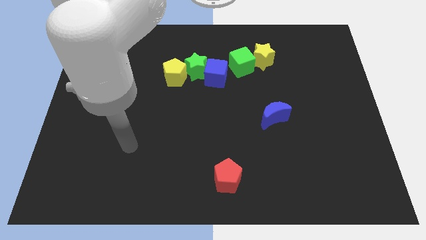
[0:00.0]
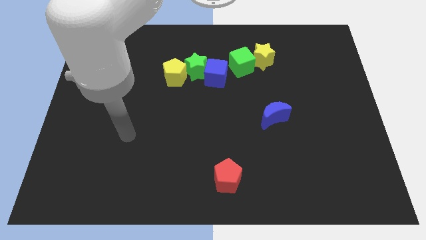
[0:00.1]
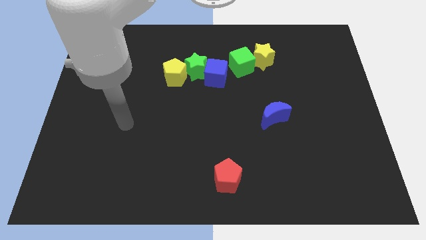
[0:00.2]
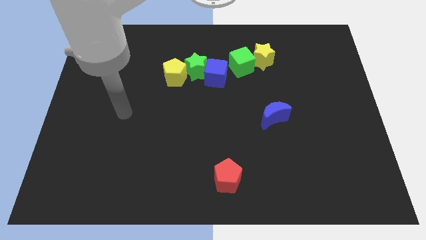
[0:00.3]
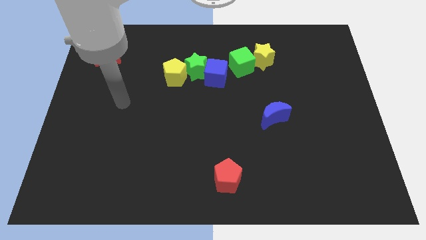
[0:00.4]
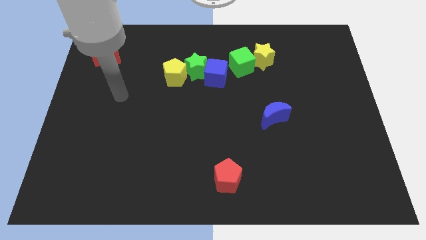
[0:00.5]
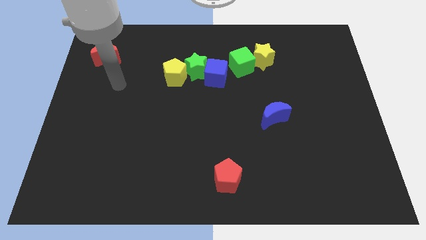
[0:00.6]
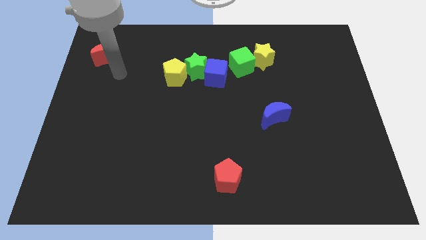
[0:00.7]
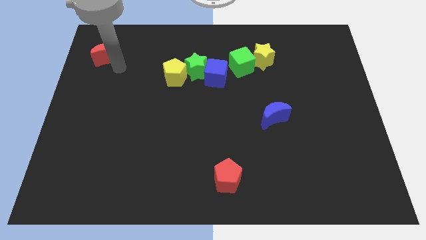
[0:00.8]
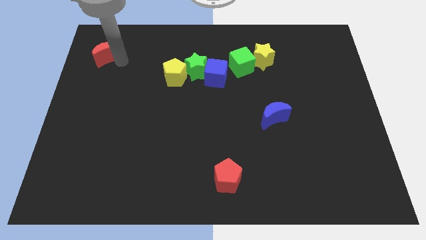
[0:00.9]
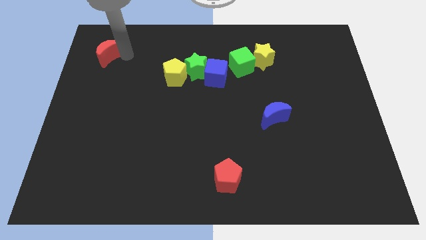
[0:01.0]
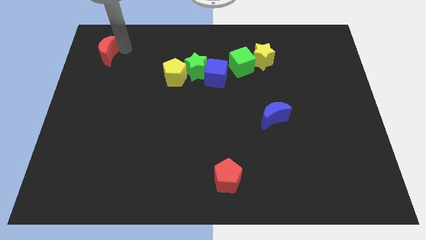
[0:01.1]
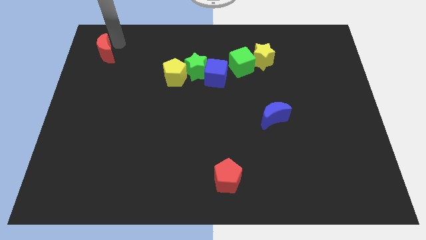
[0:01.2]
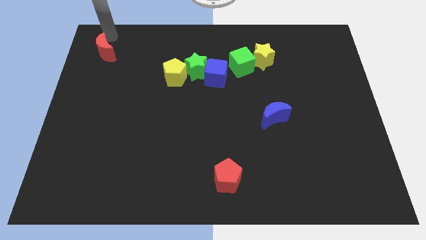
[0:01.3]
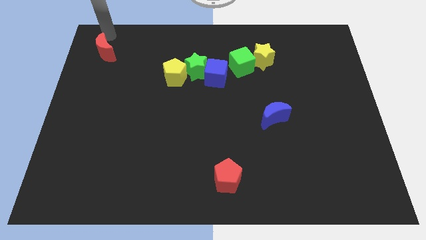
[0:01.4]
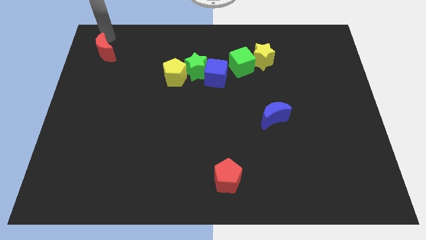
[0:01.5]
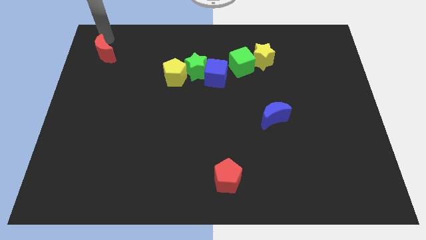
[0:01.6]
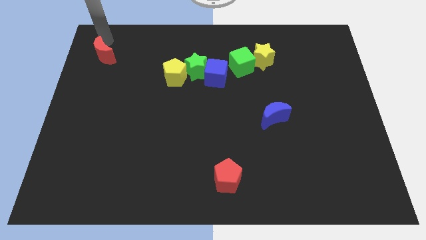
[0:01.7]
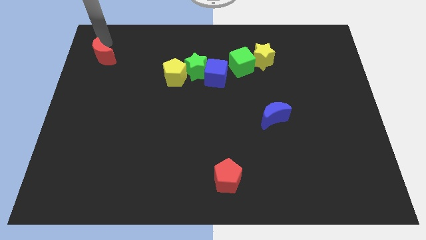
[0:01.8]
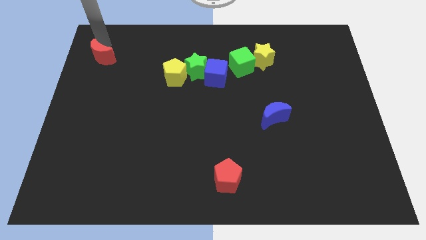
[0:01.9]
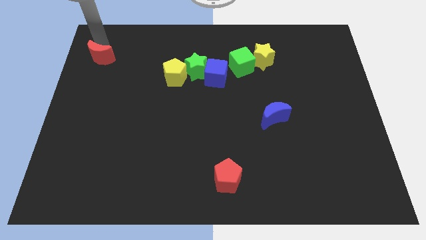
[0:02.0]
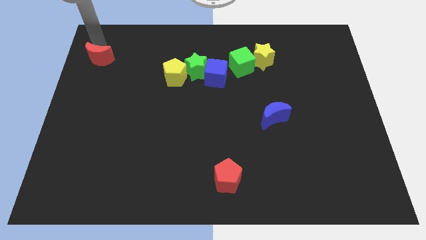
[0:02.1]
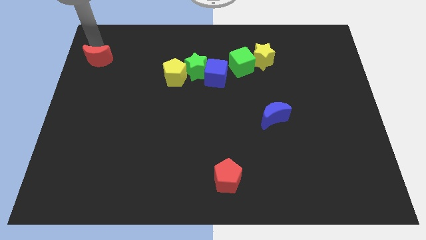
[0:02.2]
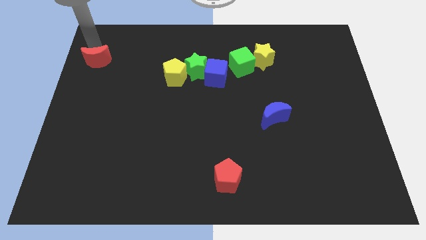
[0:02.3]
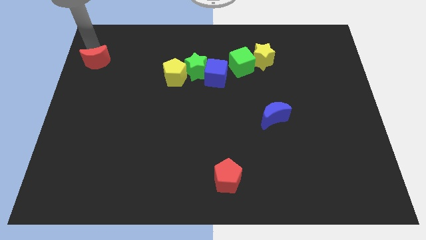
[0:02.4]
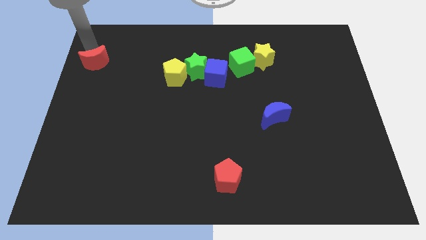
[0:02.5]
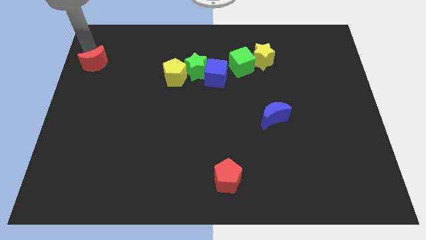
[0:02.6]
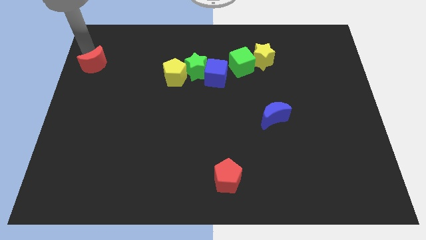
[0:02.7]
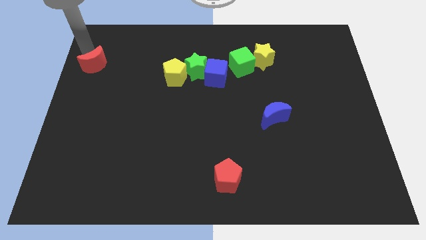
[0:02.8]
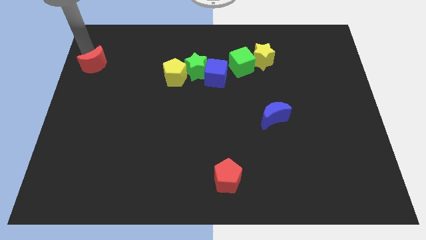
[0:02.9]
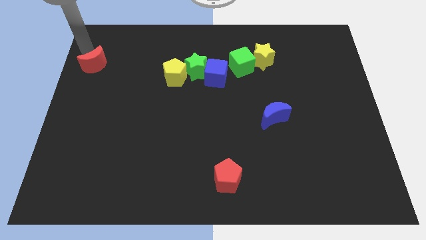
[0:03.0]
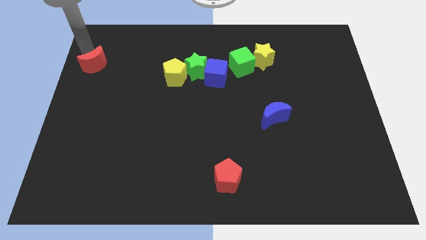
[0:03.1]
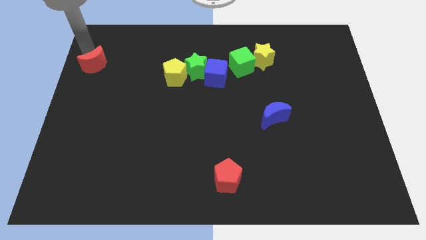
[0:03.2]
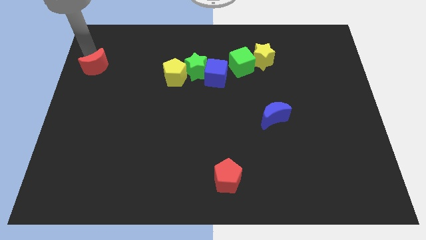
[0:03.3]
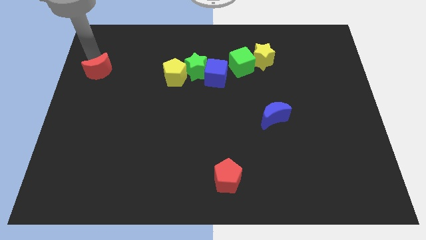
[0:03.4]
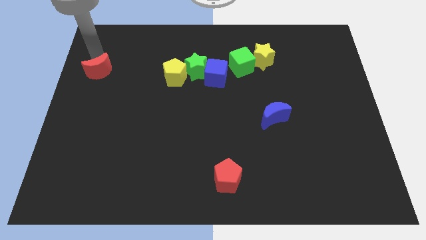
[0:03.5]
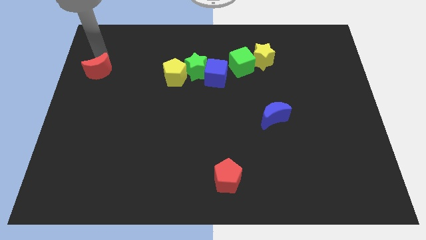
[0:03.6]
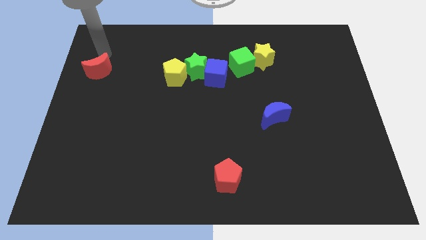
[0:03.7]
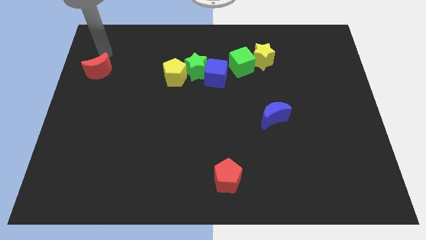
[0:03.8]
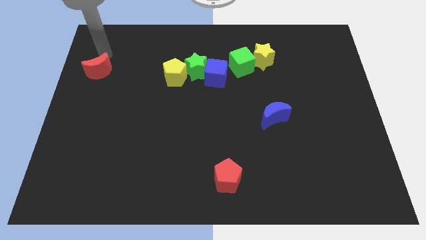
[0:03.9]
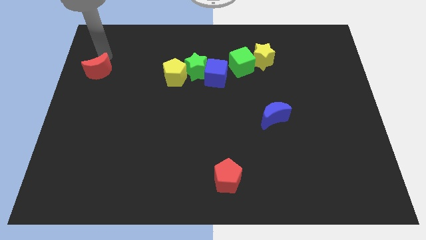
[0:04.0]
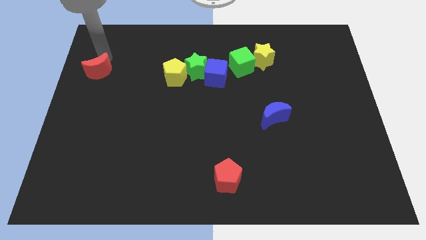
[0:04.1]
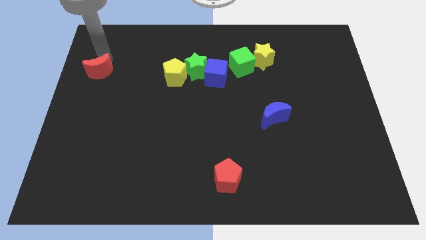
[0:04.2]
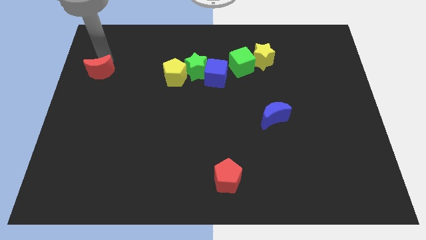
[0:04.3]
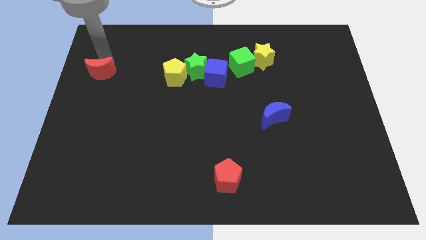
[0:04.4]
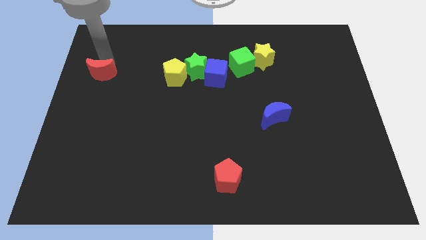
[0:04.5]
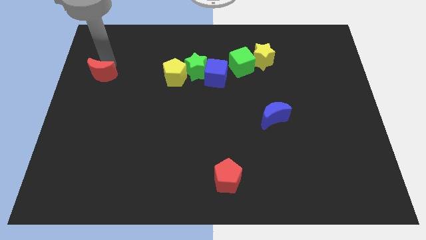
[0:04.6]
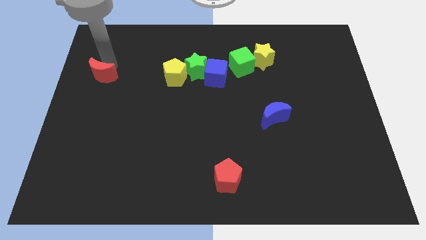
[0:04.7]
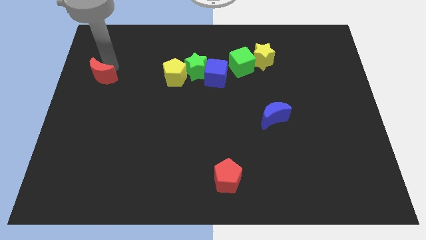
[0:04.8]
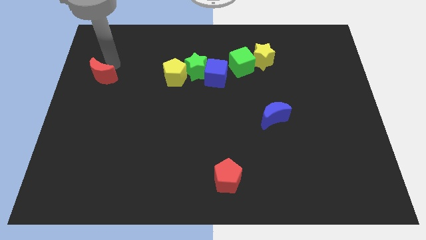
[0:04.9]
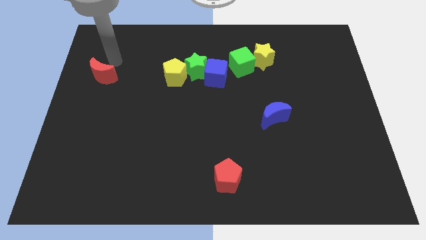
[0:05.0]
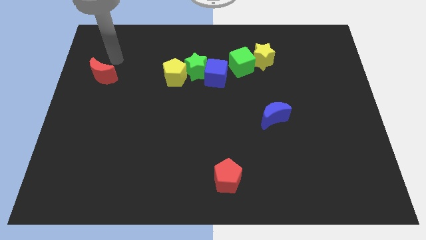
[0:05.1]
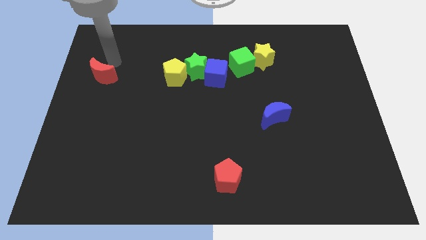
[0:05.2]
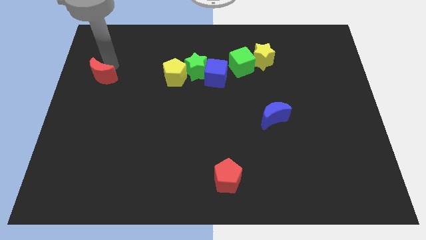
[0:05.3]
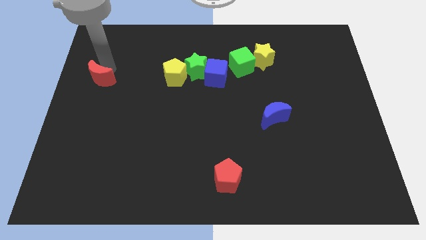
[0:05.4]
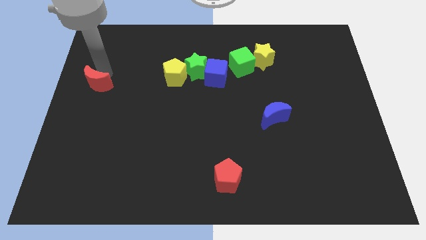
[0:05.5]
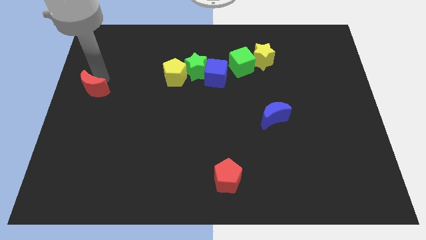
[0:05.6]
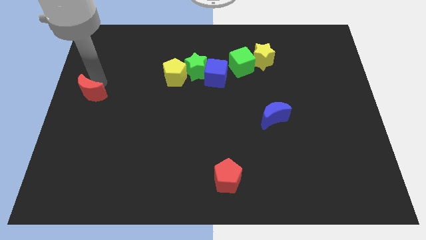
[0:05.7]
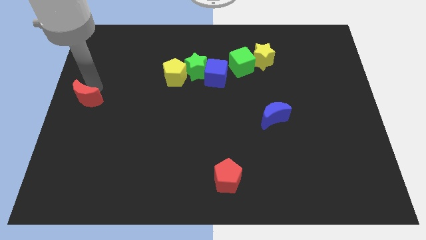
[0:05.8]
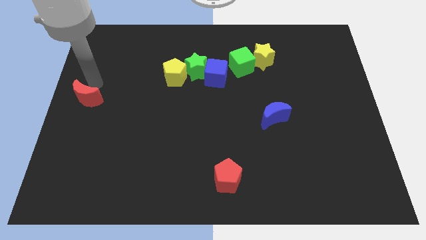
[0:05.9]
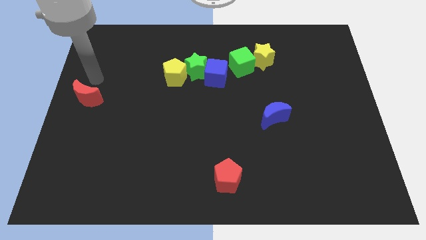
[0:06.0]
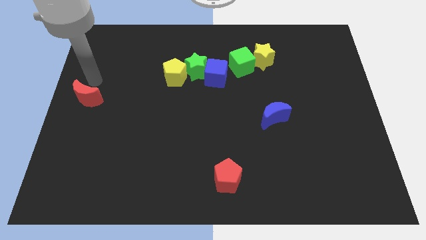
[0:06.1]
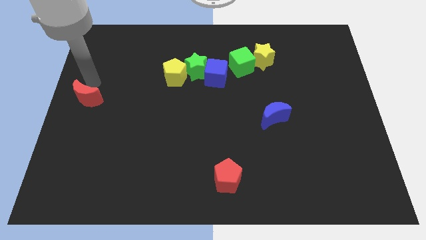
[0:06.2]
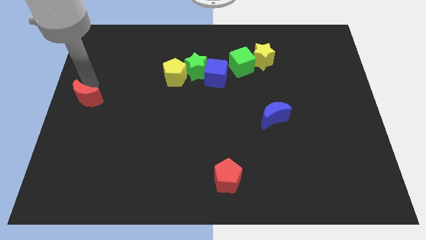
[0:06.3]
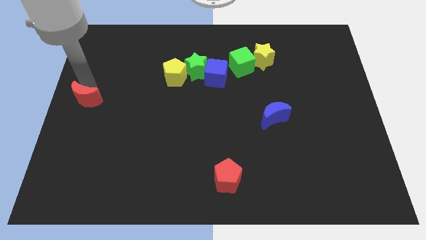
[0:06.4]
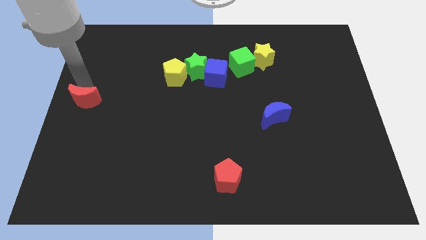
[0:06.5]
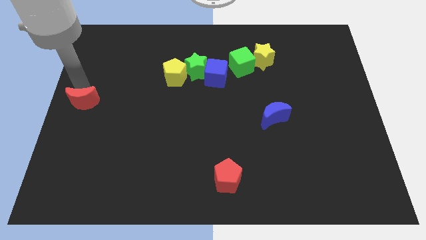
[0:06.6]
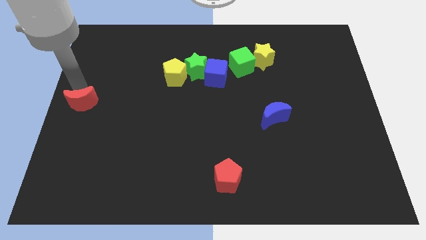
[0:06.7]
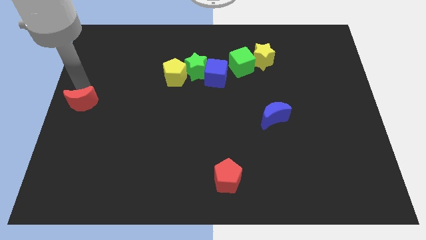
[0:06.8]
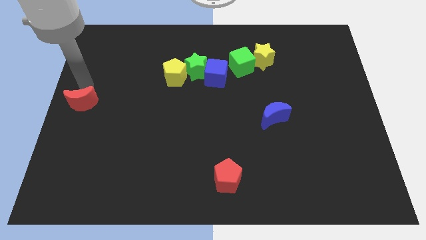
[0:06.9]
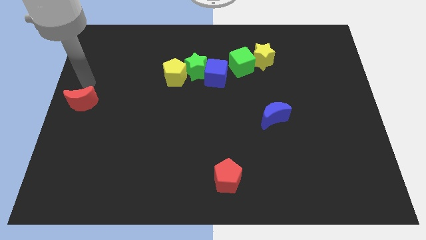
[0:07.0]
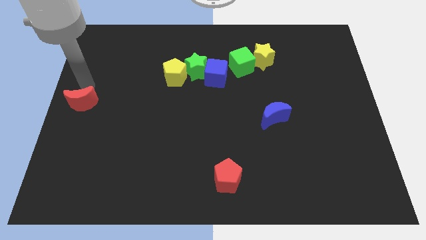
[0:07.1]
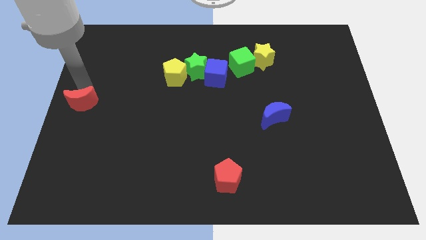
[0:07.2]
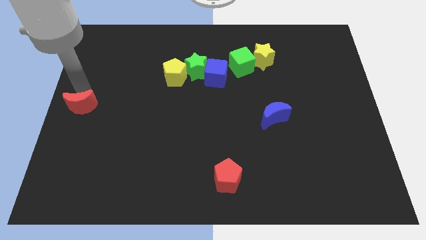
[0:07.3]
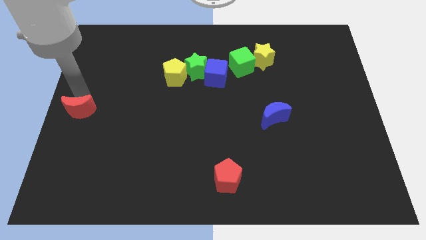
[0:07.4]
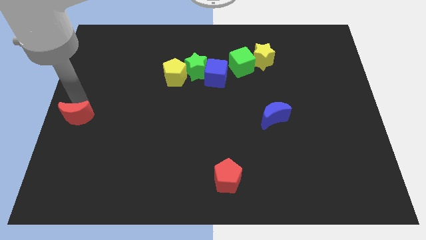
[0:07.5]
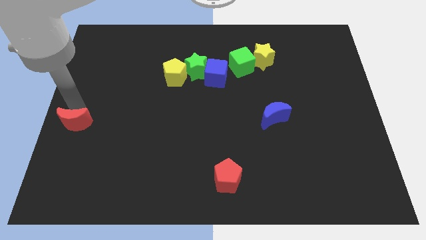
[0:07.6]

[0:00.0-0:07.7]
move the red moon down

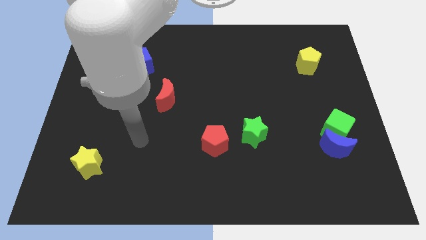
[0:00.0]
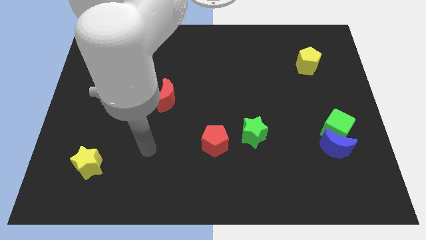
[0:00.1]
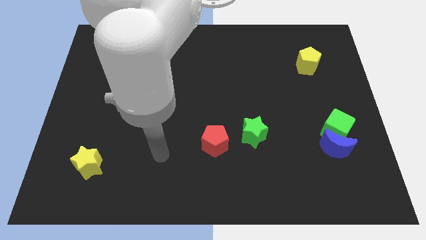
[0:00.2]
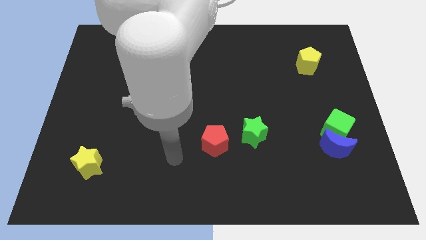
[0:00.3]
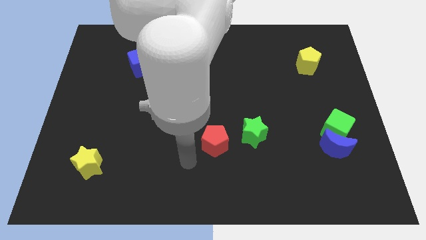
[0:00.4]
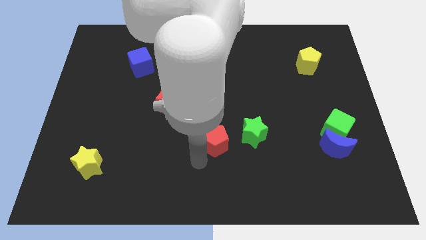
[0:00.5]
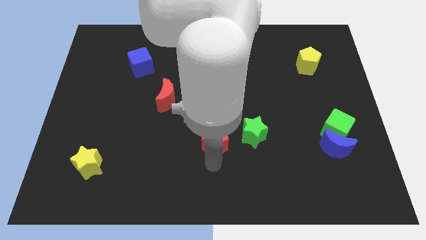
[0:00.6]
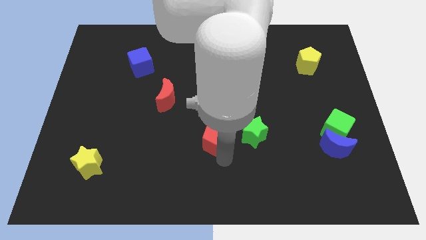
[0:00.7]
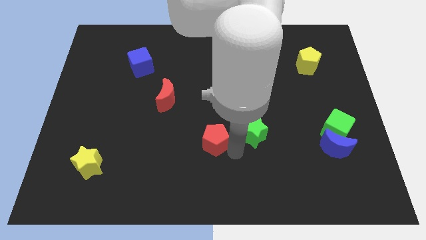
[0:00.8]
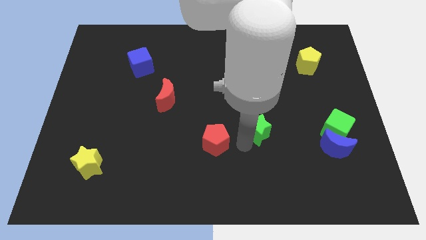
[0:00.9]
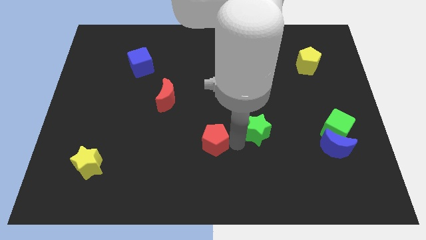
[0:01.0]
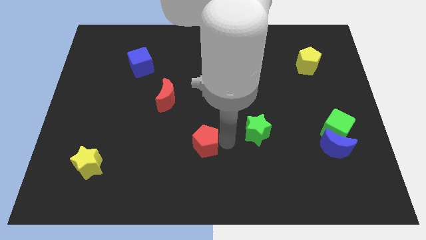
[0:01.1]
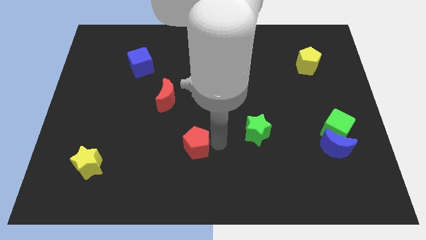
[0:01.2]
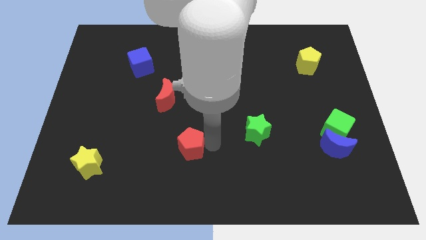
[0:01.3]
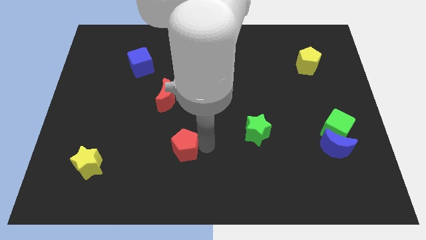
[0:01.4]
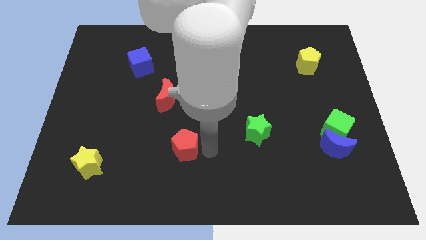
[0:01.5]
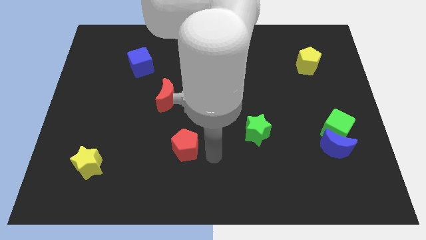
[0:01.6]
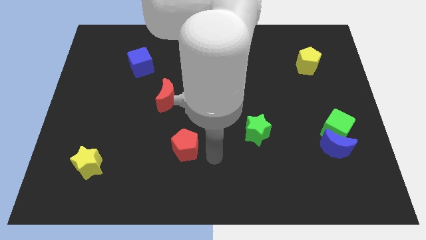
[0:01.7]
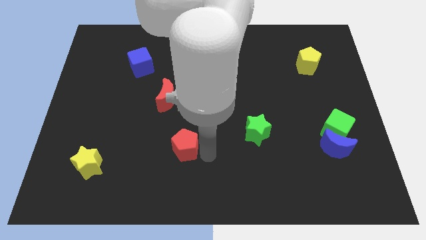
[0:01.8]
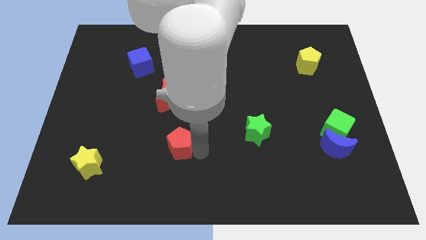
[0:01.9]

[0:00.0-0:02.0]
move the red pentagon left slightly
